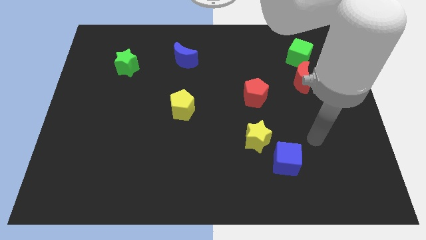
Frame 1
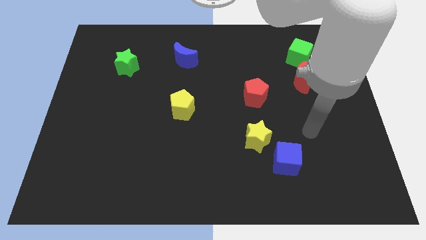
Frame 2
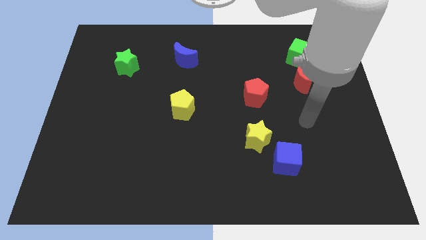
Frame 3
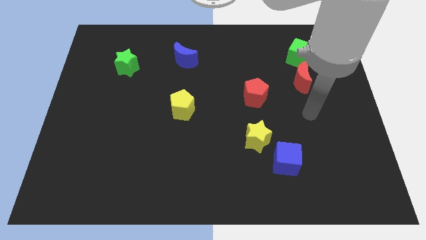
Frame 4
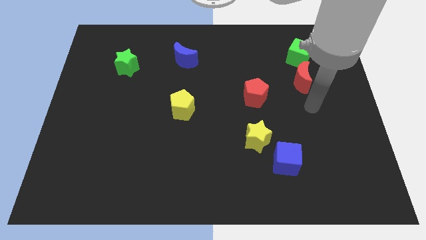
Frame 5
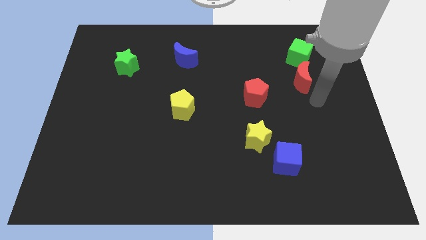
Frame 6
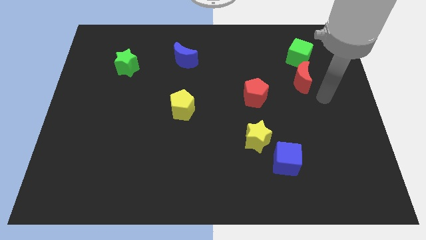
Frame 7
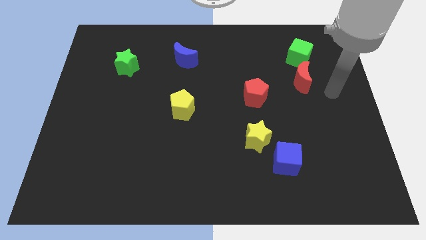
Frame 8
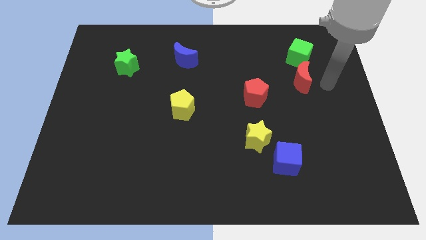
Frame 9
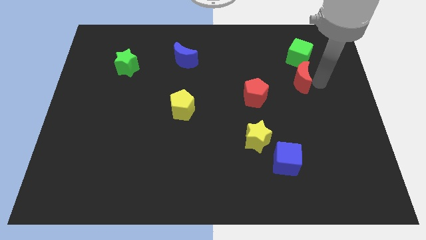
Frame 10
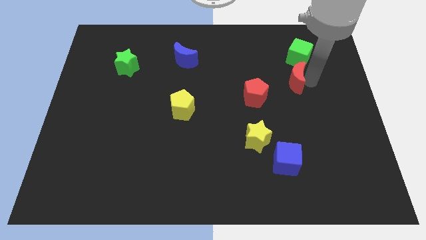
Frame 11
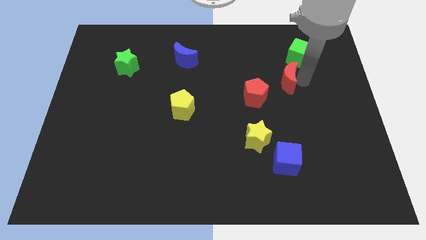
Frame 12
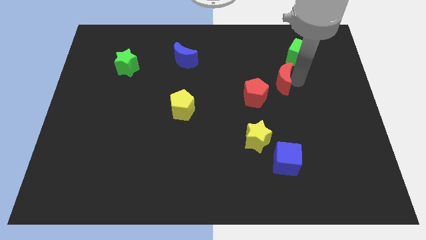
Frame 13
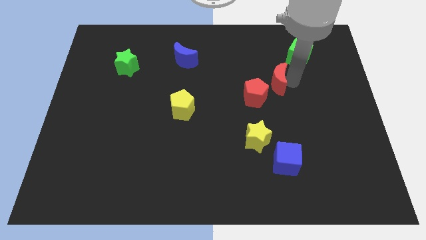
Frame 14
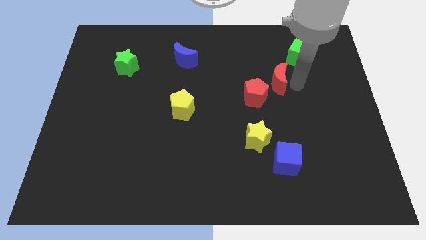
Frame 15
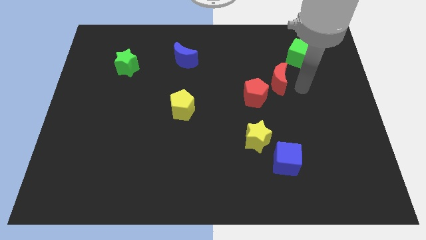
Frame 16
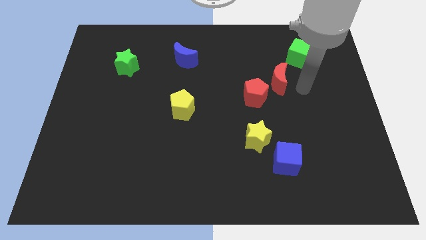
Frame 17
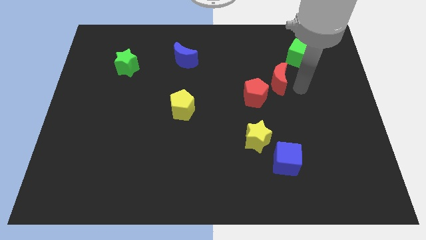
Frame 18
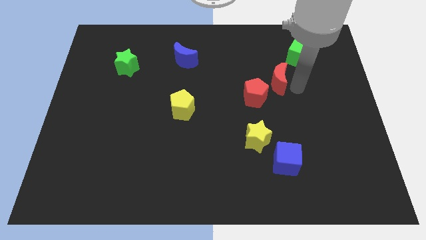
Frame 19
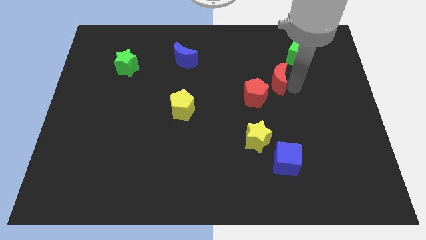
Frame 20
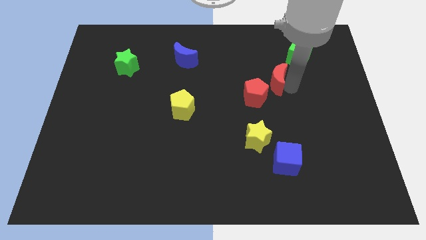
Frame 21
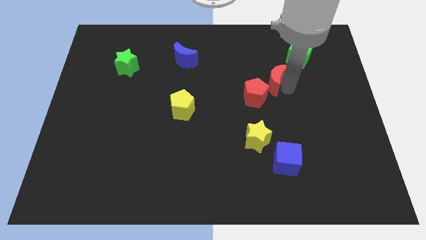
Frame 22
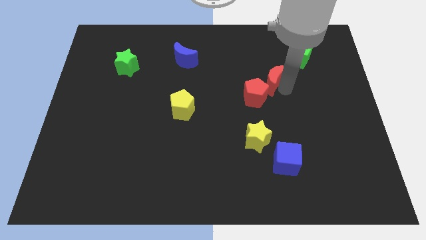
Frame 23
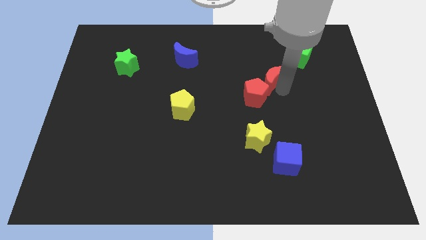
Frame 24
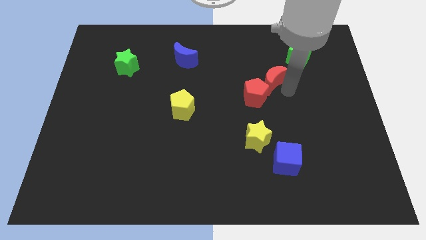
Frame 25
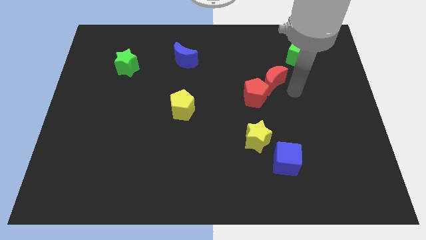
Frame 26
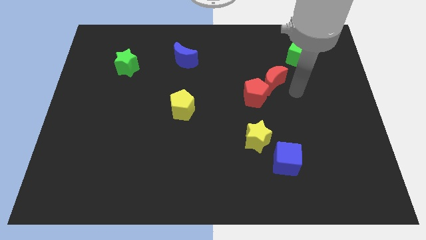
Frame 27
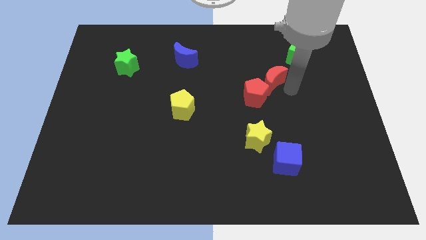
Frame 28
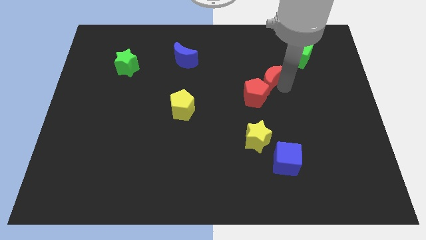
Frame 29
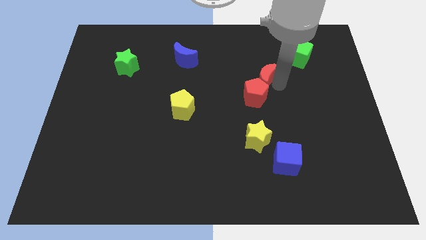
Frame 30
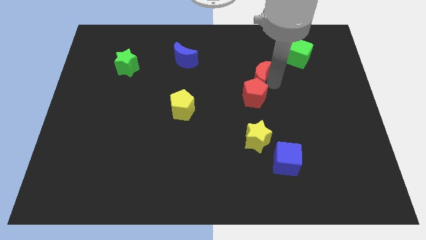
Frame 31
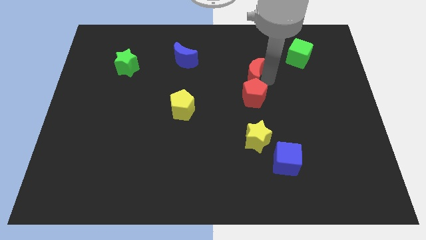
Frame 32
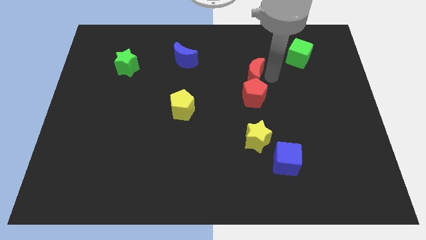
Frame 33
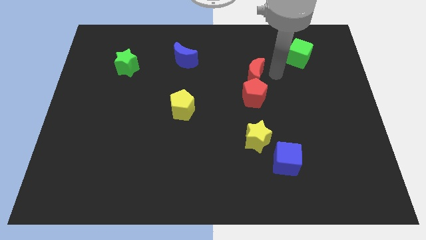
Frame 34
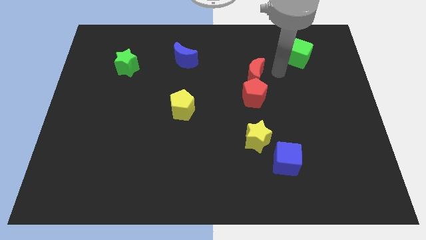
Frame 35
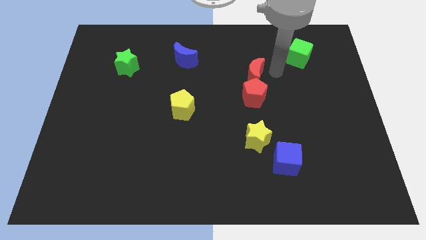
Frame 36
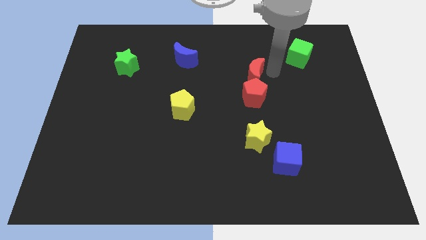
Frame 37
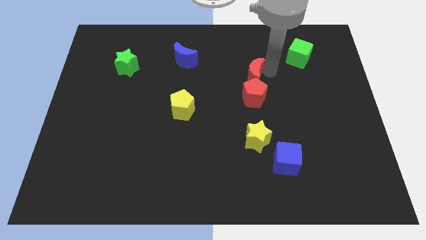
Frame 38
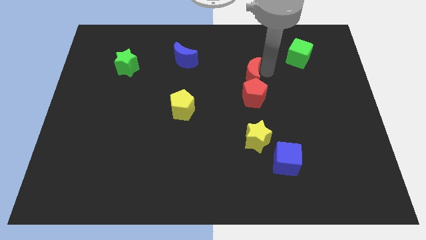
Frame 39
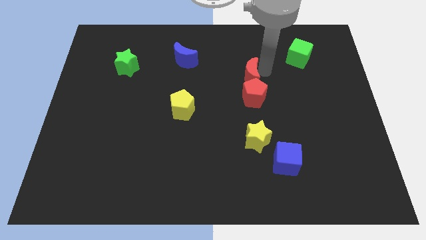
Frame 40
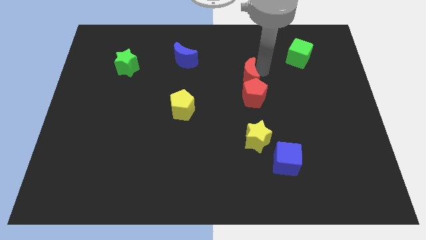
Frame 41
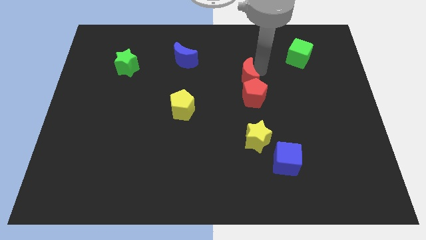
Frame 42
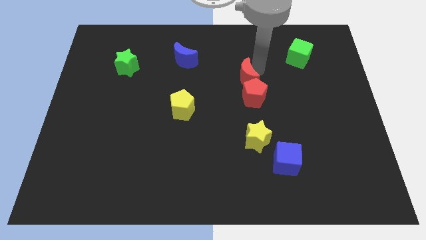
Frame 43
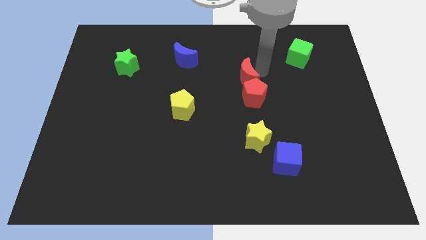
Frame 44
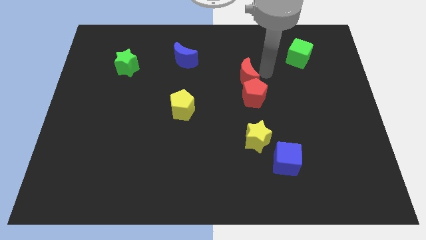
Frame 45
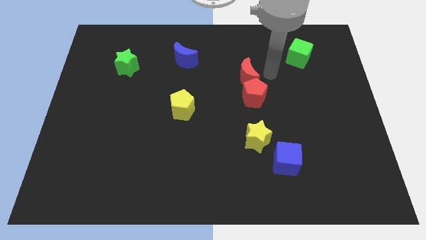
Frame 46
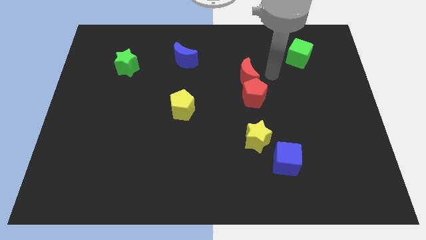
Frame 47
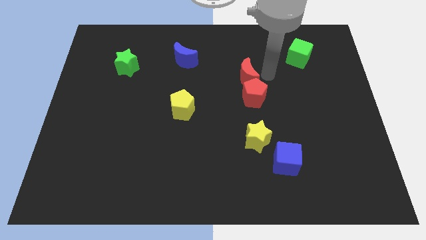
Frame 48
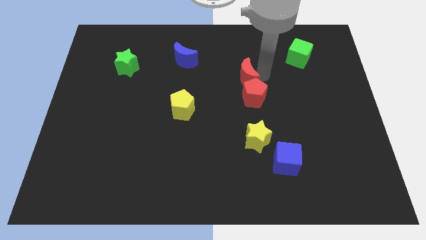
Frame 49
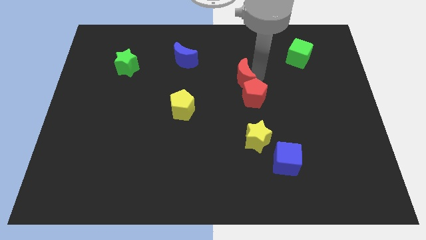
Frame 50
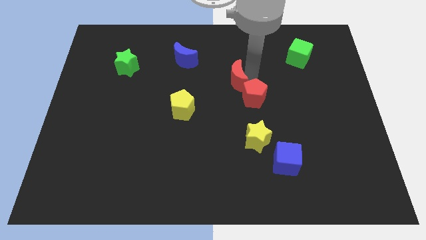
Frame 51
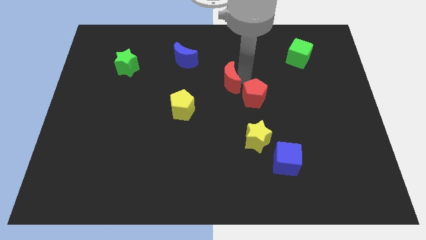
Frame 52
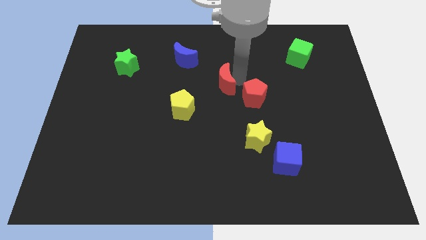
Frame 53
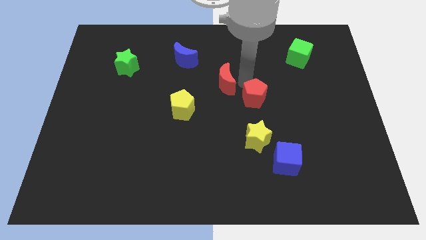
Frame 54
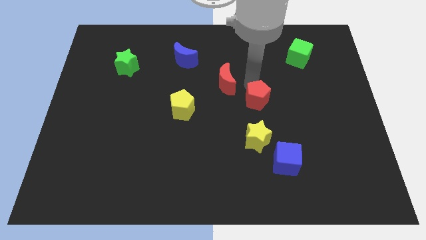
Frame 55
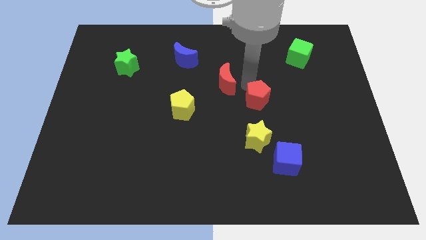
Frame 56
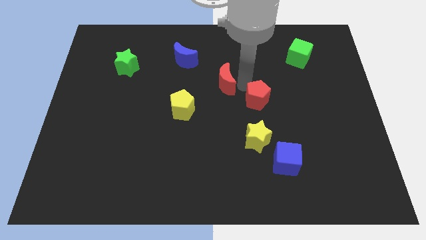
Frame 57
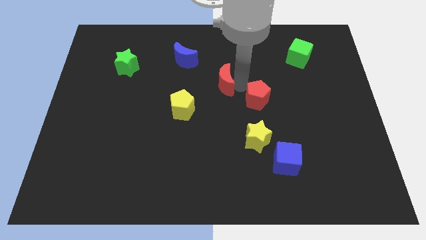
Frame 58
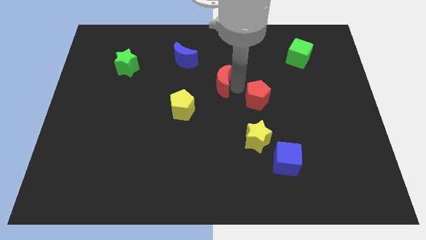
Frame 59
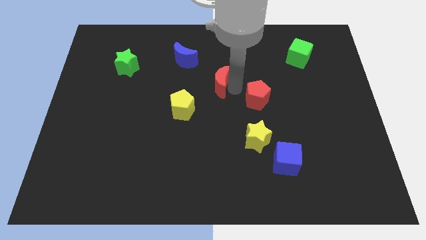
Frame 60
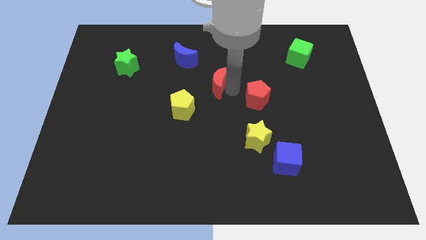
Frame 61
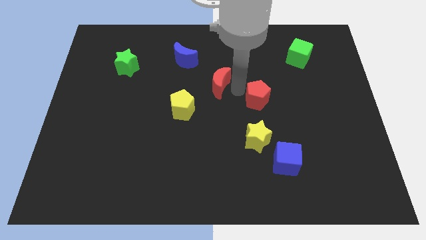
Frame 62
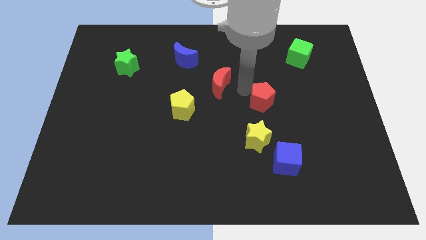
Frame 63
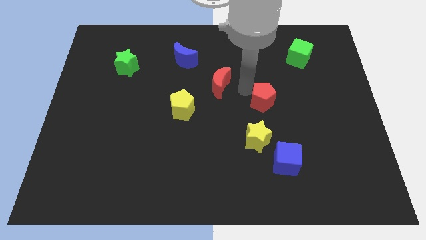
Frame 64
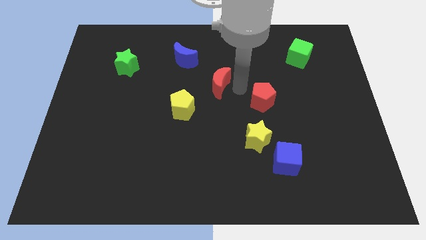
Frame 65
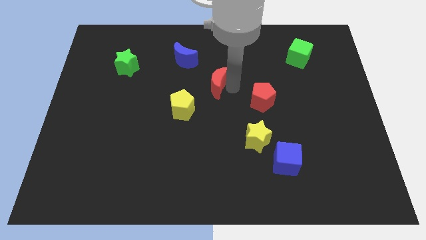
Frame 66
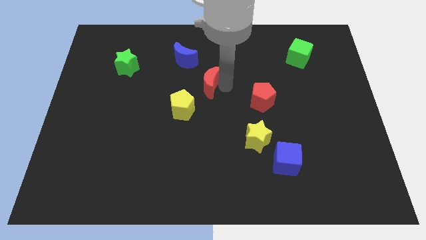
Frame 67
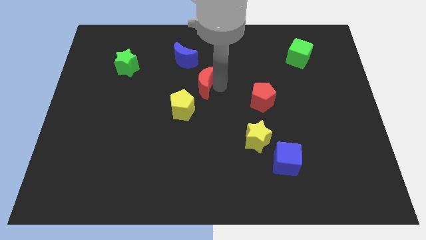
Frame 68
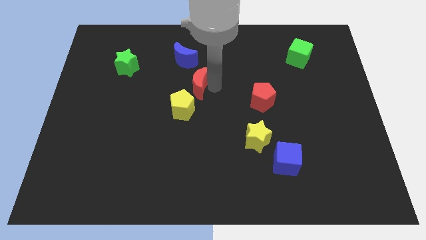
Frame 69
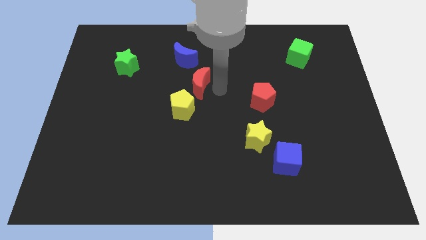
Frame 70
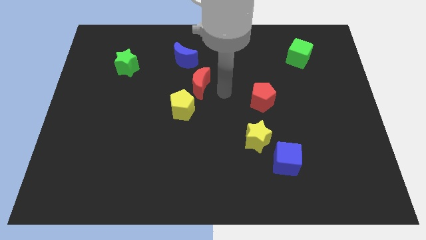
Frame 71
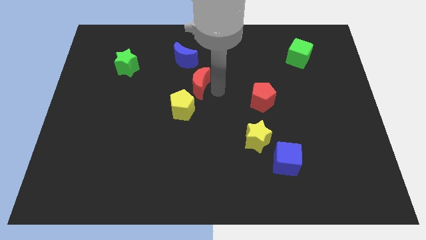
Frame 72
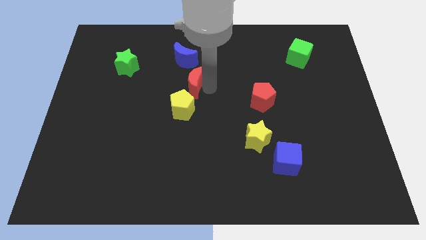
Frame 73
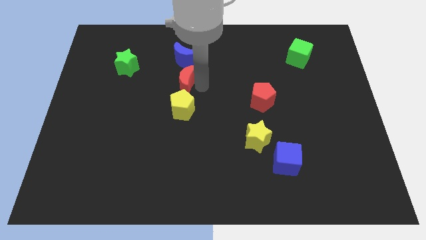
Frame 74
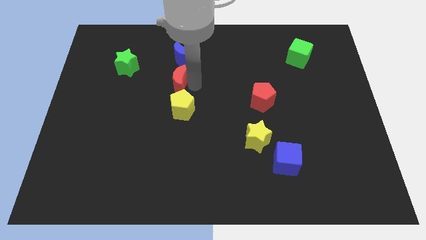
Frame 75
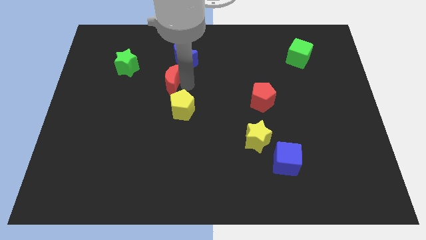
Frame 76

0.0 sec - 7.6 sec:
slide the red moon to the bottom left side of the blue moon
